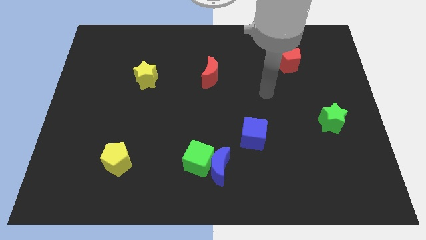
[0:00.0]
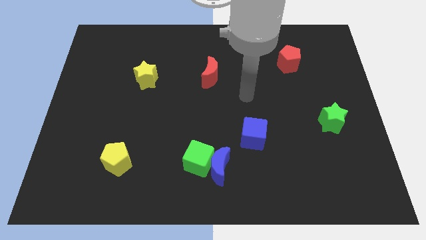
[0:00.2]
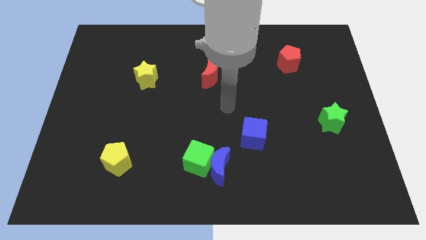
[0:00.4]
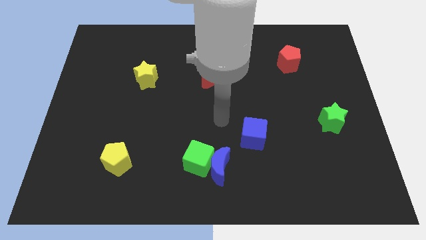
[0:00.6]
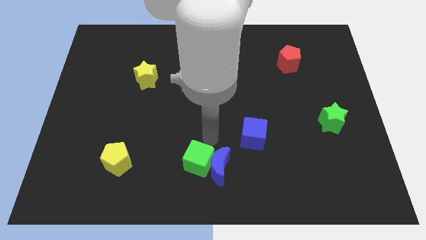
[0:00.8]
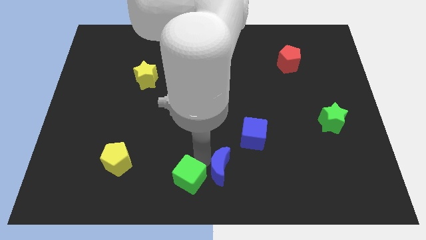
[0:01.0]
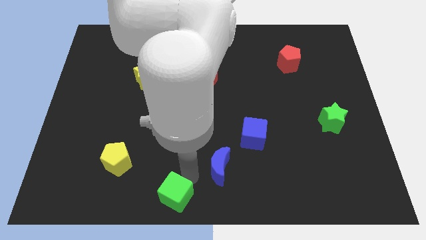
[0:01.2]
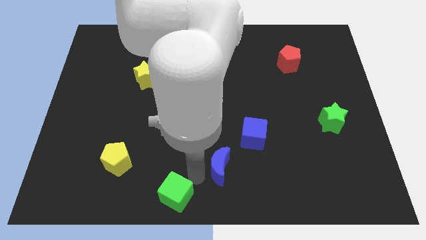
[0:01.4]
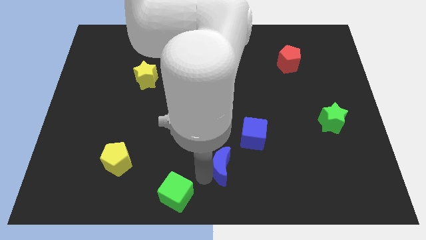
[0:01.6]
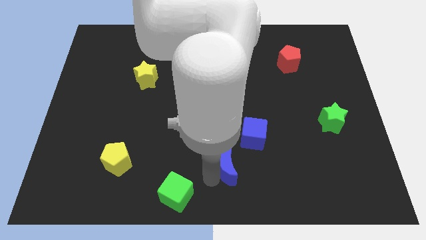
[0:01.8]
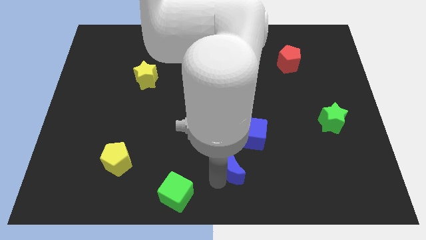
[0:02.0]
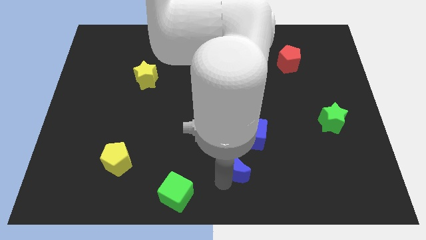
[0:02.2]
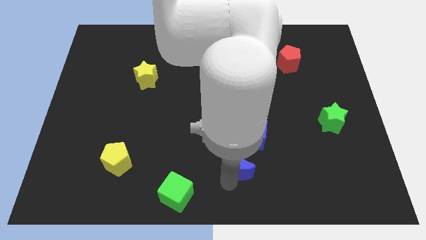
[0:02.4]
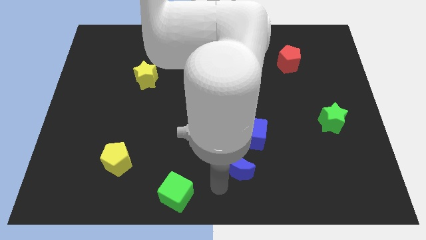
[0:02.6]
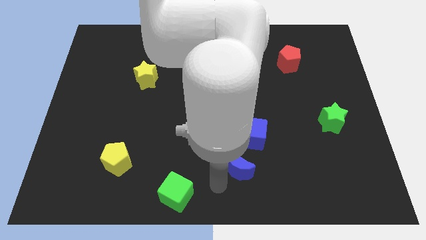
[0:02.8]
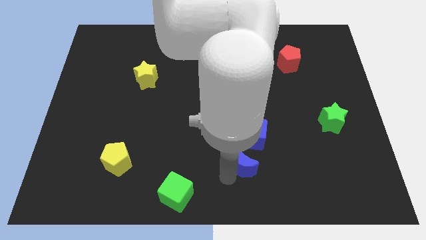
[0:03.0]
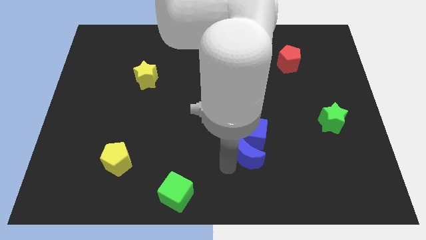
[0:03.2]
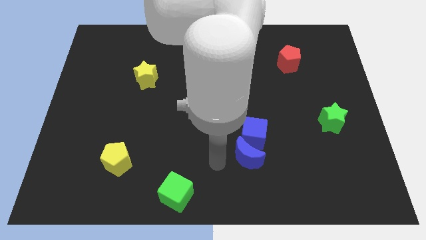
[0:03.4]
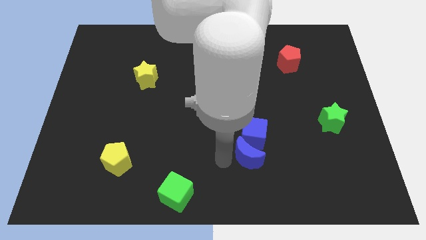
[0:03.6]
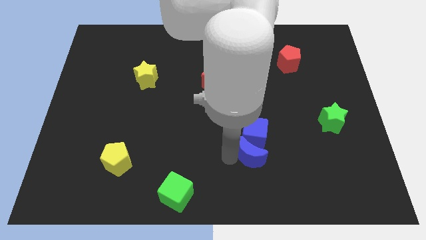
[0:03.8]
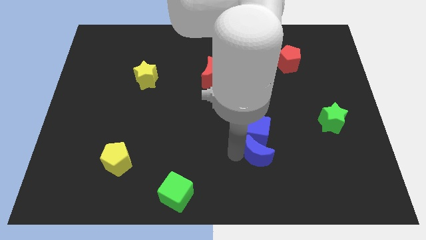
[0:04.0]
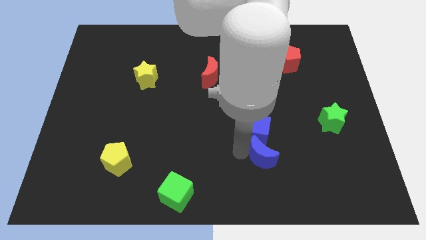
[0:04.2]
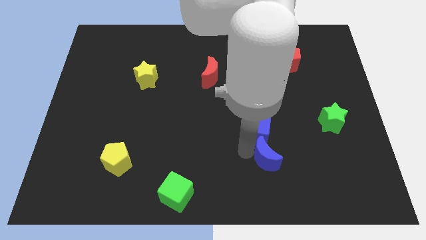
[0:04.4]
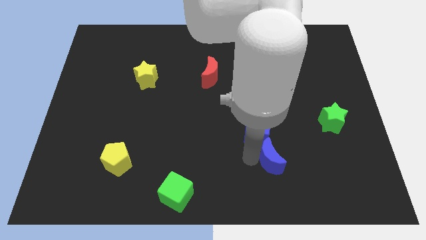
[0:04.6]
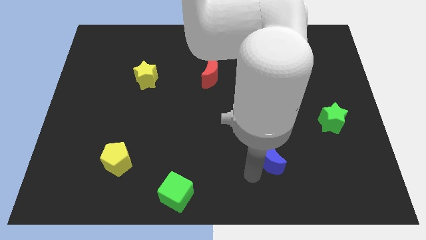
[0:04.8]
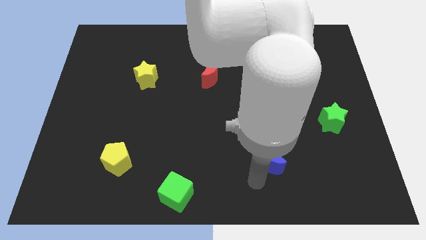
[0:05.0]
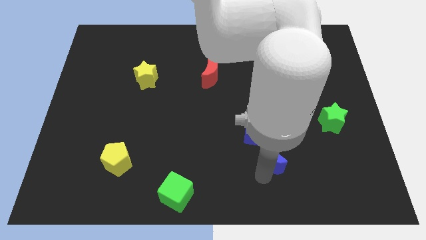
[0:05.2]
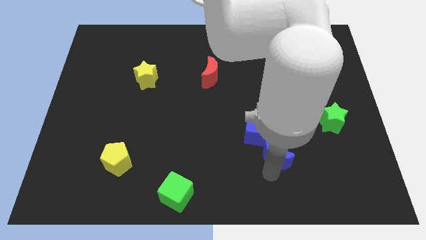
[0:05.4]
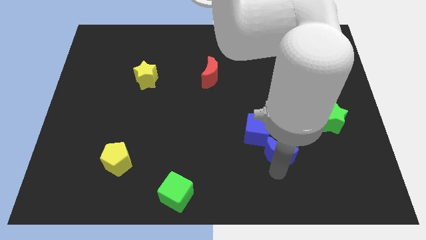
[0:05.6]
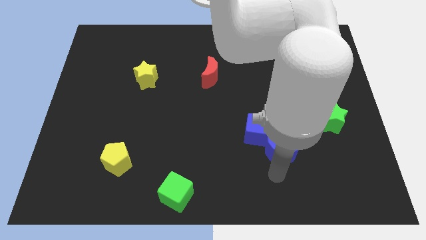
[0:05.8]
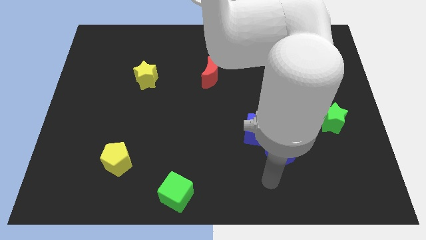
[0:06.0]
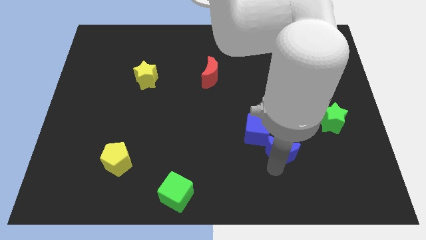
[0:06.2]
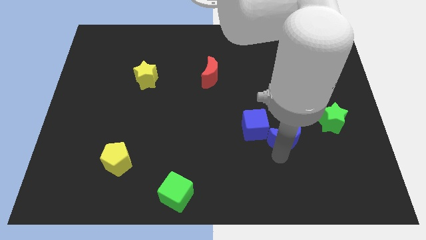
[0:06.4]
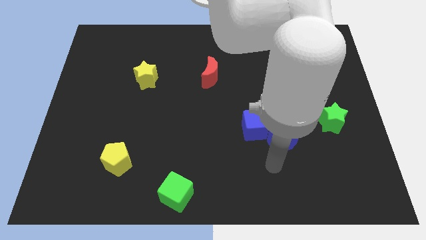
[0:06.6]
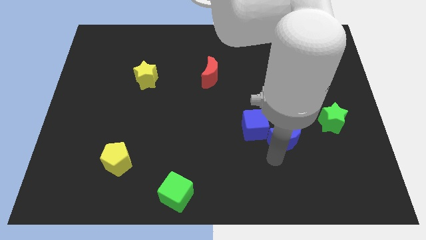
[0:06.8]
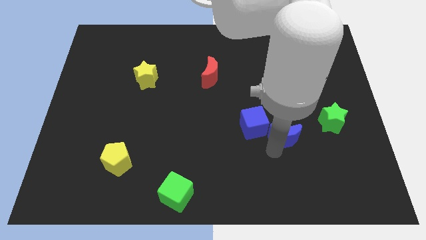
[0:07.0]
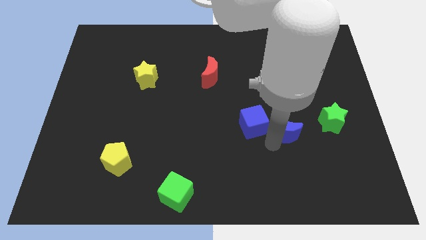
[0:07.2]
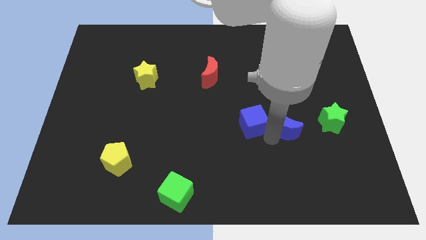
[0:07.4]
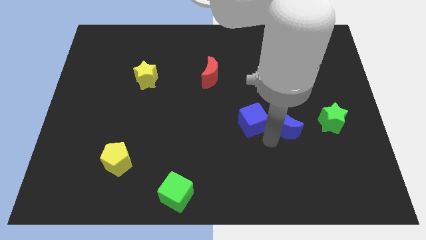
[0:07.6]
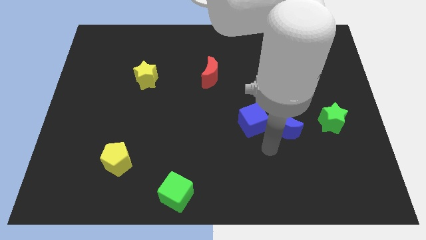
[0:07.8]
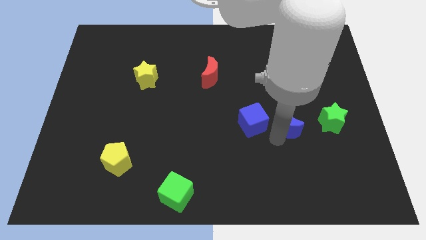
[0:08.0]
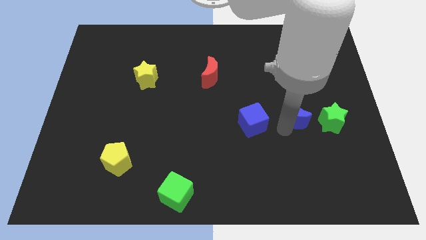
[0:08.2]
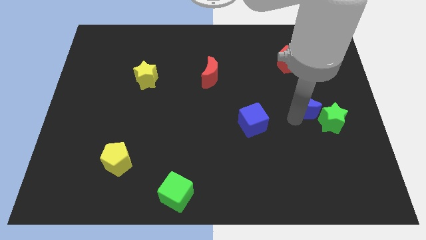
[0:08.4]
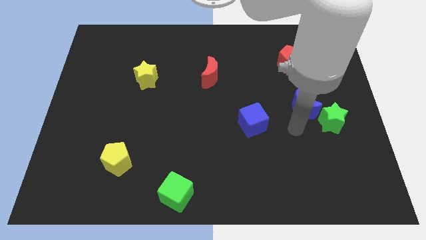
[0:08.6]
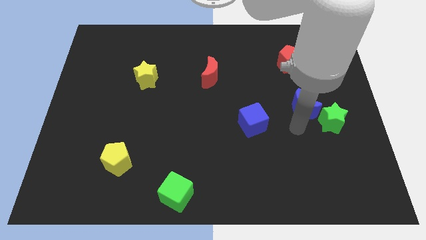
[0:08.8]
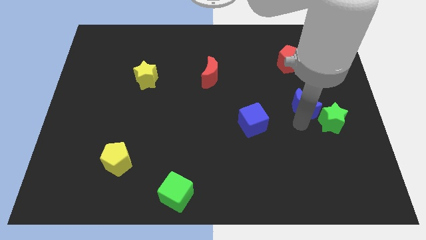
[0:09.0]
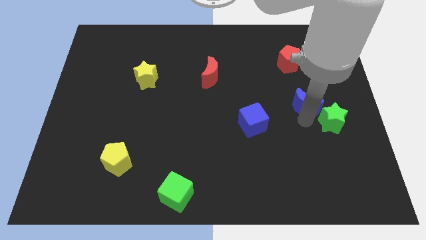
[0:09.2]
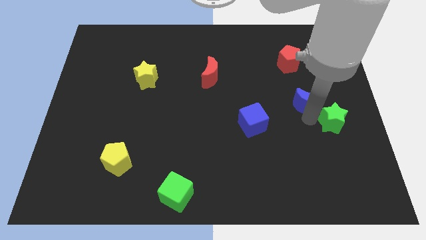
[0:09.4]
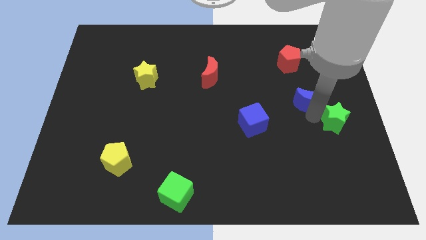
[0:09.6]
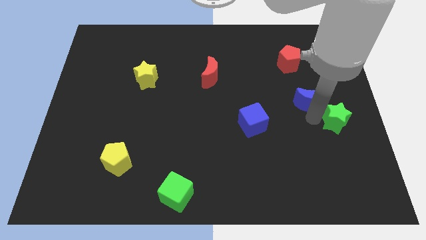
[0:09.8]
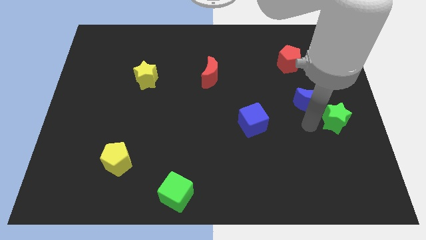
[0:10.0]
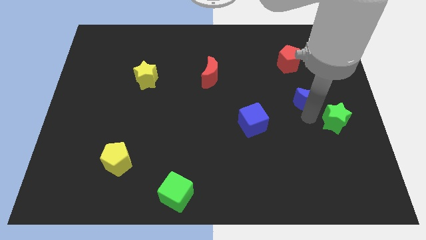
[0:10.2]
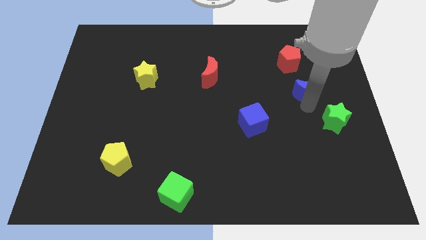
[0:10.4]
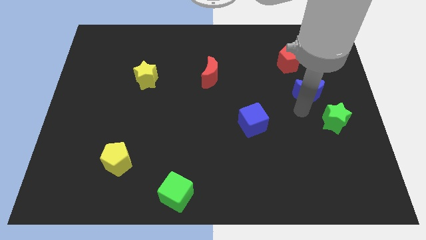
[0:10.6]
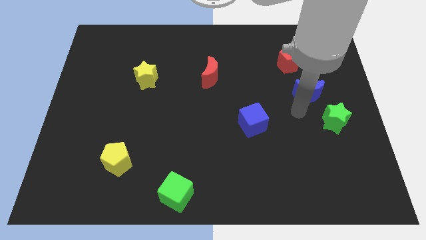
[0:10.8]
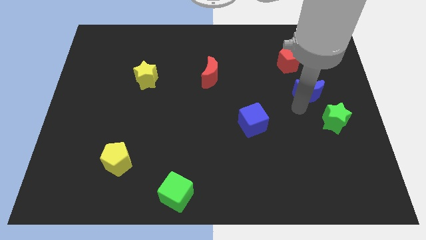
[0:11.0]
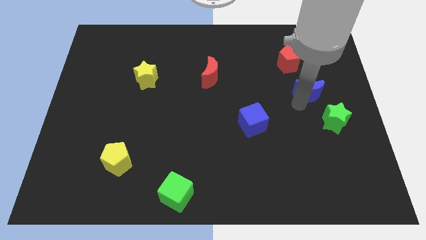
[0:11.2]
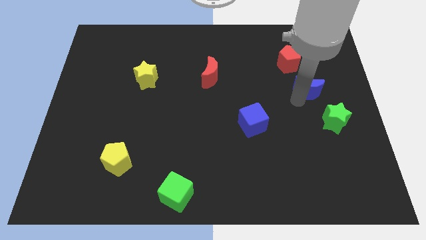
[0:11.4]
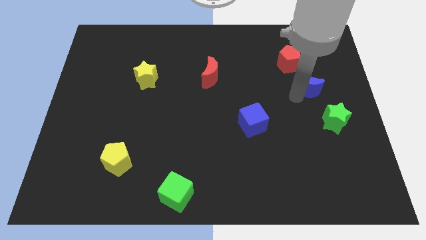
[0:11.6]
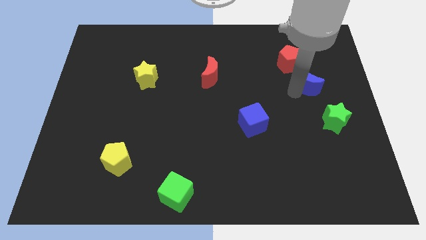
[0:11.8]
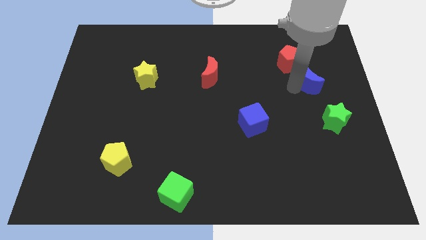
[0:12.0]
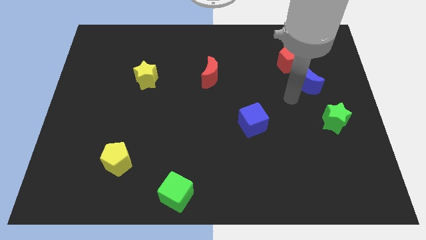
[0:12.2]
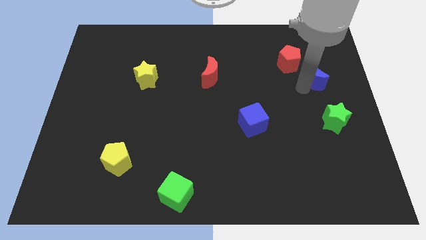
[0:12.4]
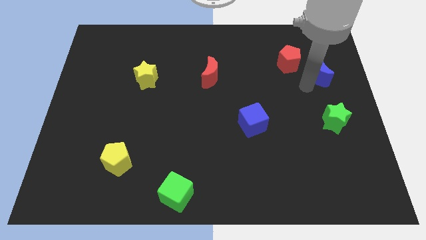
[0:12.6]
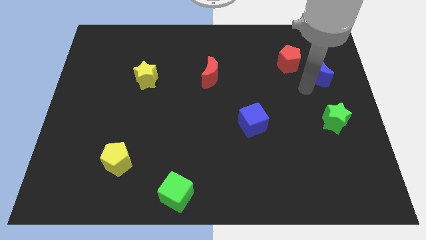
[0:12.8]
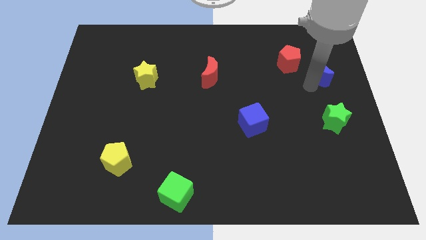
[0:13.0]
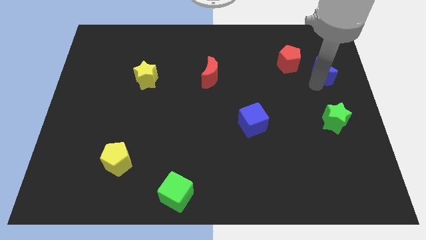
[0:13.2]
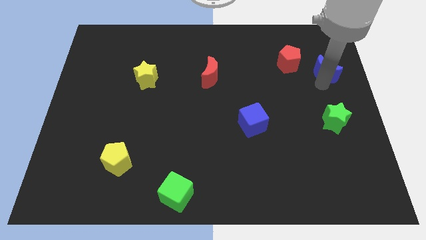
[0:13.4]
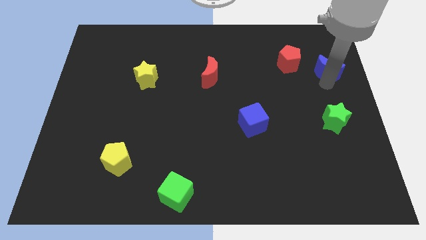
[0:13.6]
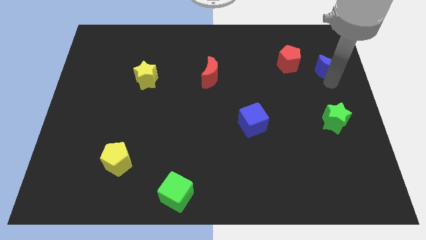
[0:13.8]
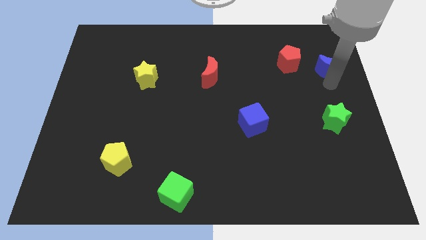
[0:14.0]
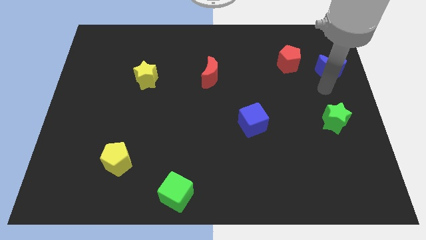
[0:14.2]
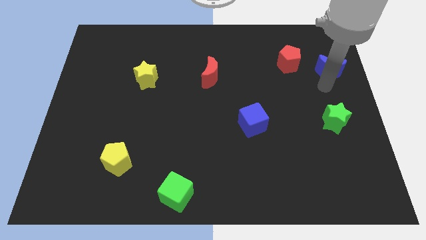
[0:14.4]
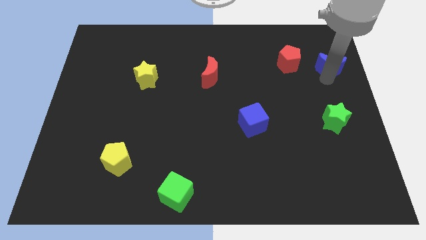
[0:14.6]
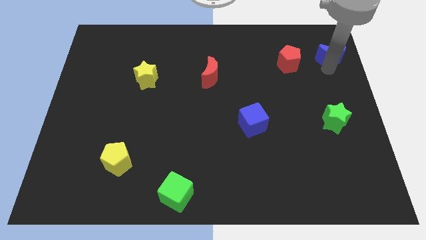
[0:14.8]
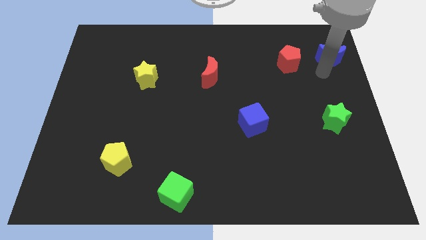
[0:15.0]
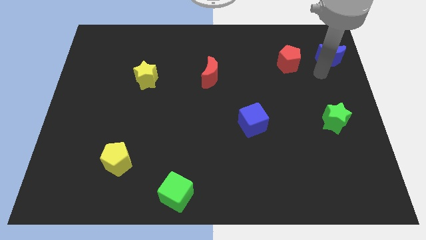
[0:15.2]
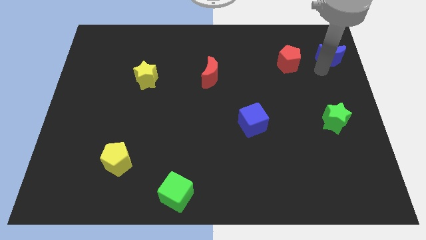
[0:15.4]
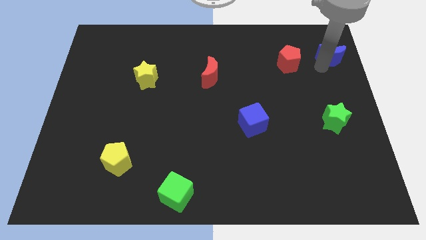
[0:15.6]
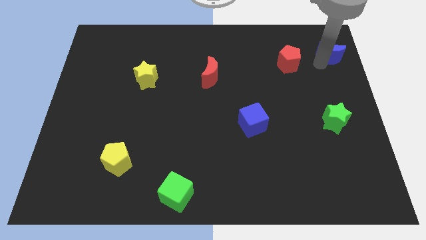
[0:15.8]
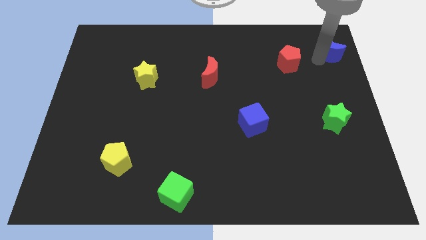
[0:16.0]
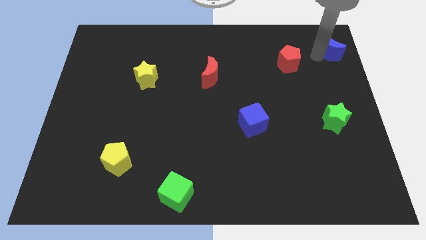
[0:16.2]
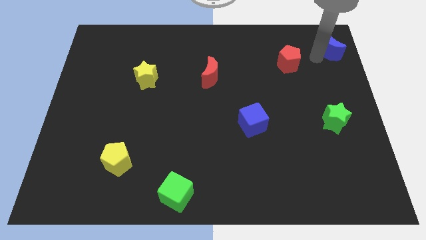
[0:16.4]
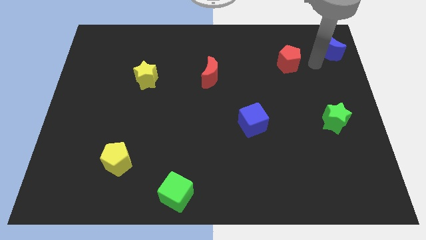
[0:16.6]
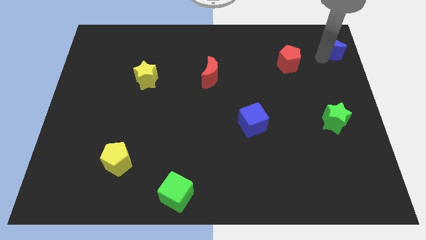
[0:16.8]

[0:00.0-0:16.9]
move the blue moon to the top right of the board
